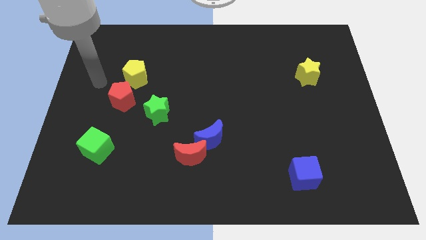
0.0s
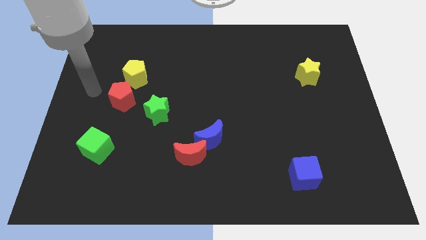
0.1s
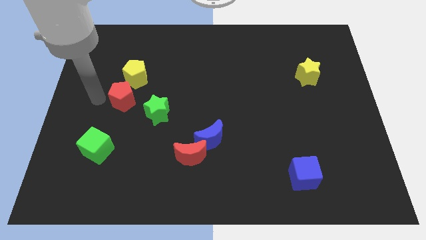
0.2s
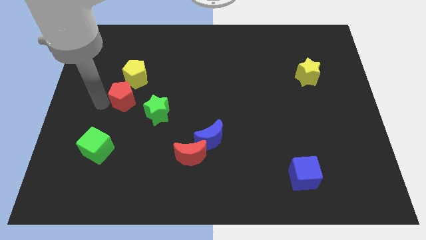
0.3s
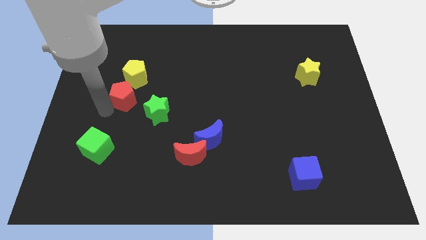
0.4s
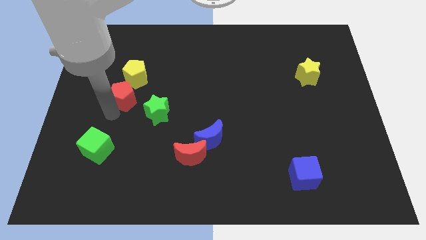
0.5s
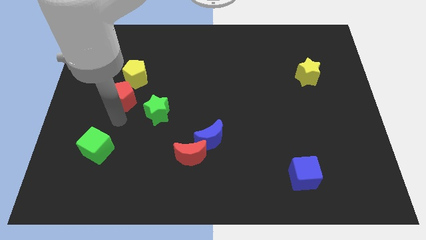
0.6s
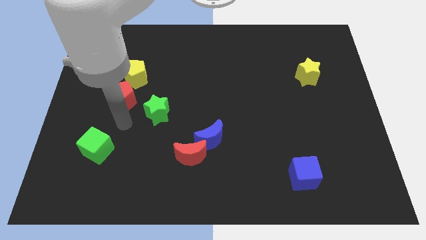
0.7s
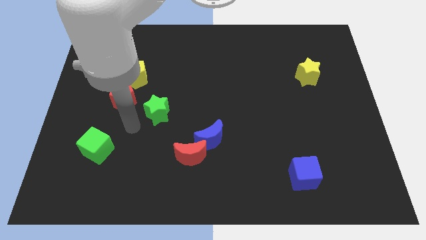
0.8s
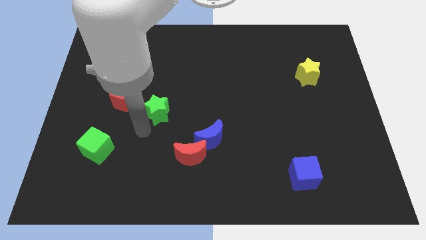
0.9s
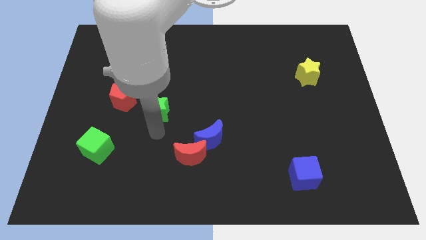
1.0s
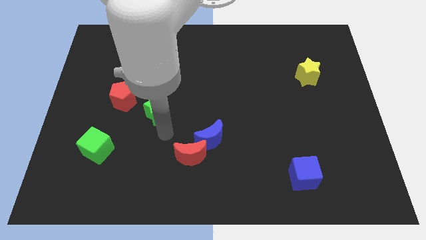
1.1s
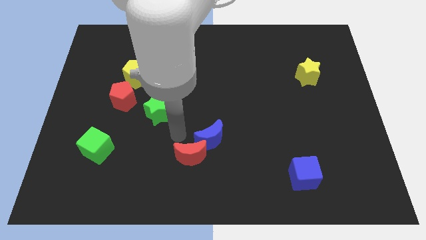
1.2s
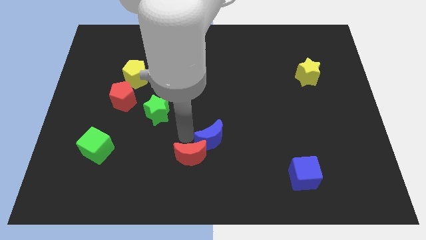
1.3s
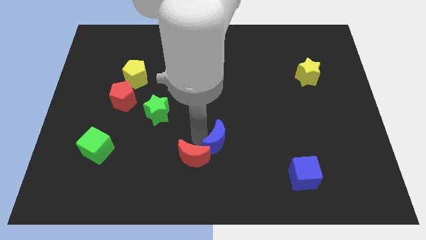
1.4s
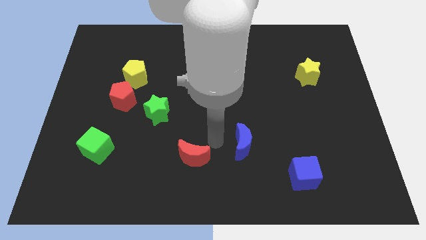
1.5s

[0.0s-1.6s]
move the red moon away from the blue moon

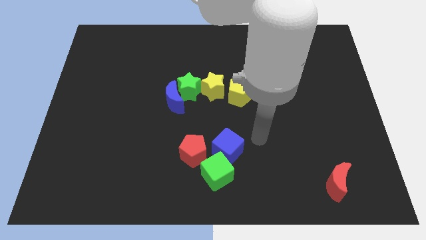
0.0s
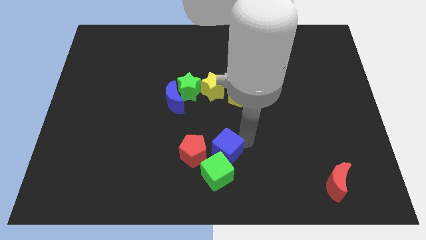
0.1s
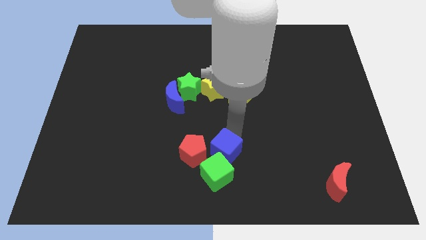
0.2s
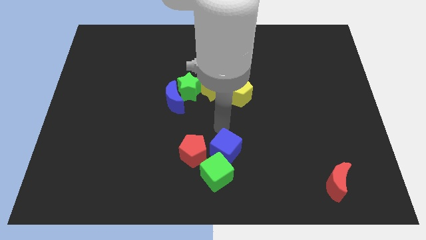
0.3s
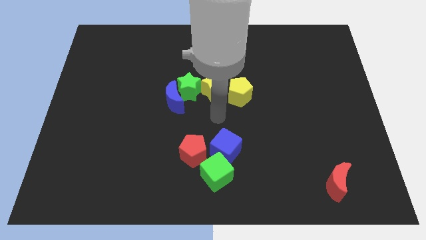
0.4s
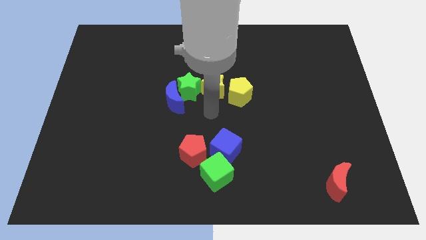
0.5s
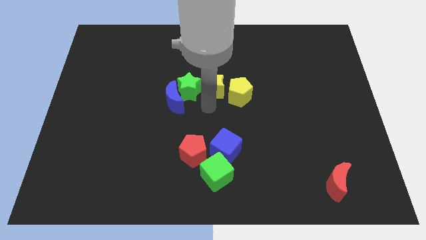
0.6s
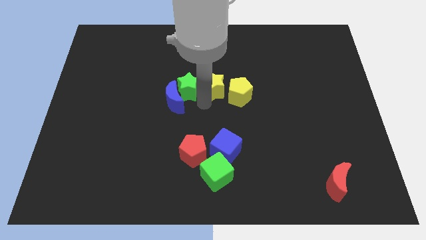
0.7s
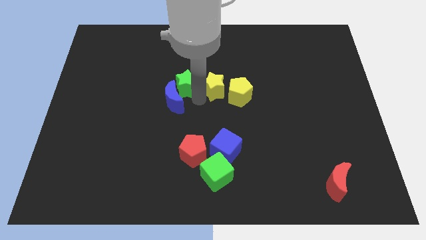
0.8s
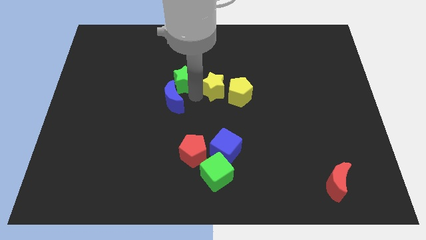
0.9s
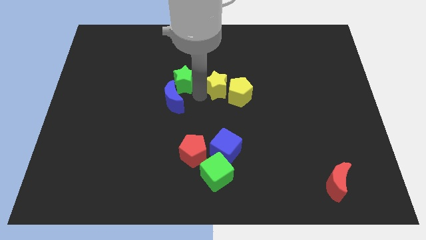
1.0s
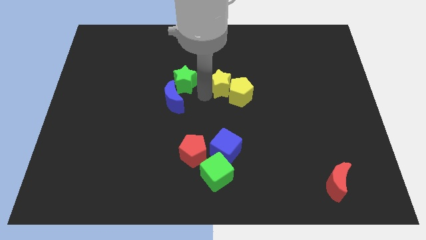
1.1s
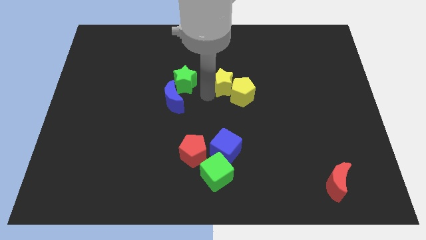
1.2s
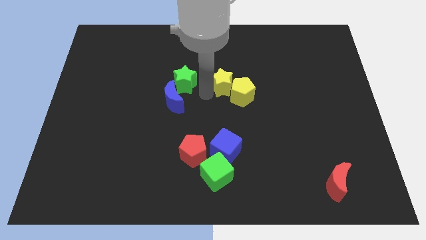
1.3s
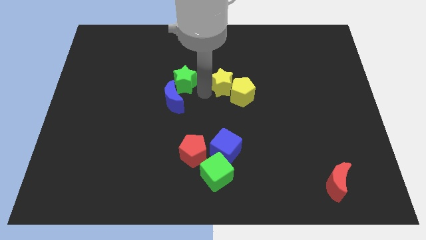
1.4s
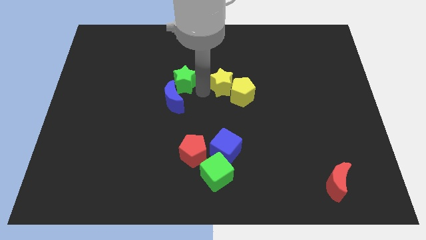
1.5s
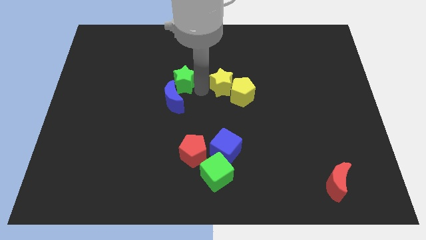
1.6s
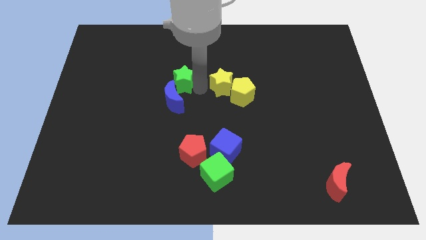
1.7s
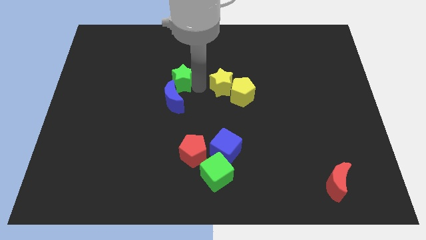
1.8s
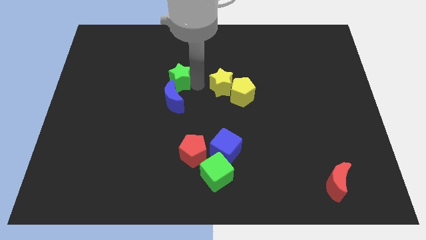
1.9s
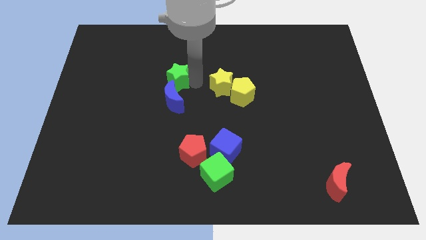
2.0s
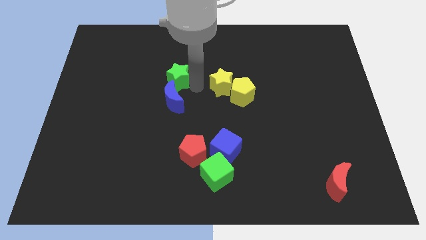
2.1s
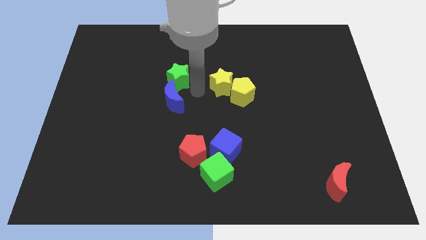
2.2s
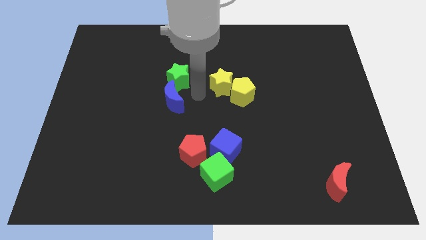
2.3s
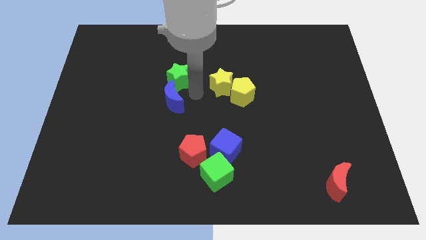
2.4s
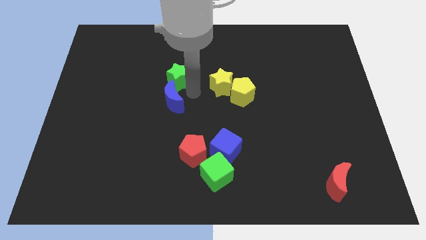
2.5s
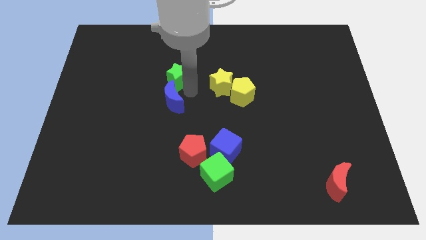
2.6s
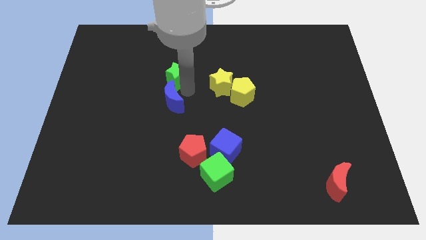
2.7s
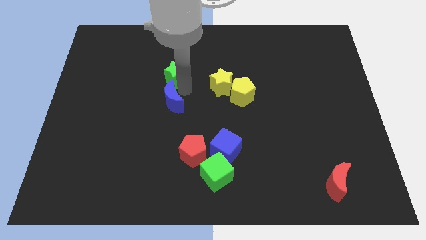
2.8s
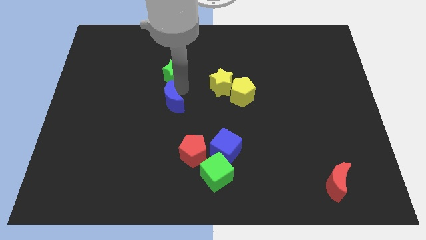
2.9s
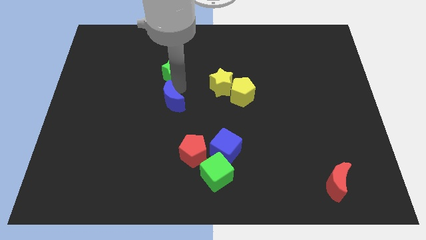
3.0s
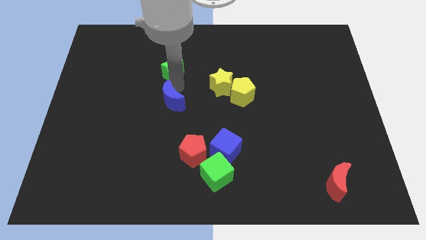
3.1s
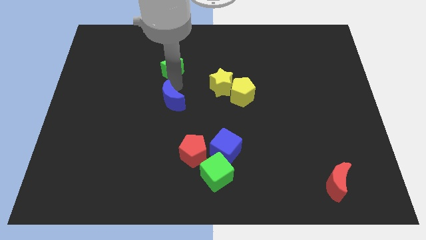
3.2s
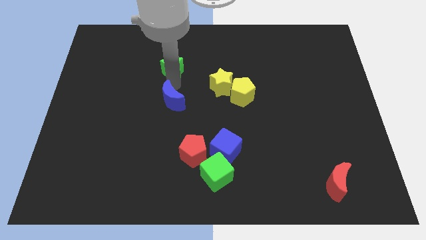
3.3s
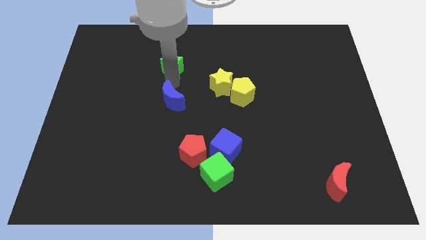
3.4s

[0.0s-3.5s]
pull the green star apart from the blue moon and yellow star

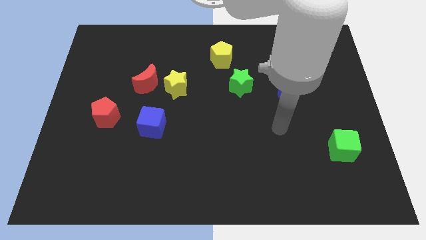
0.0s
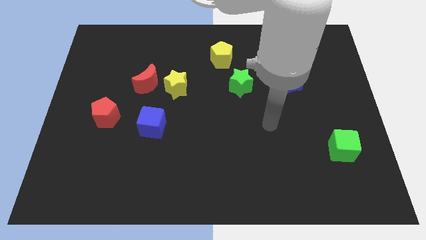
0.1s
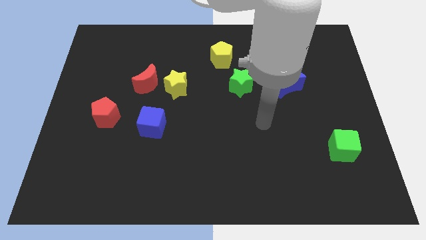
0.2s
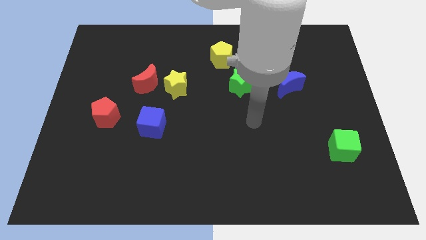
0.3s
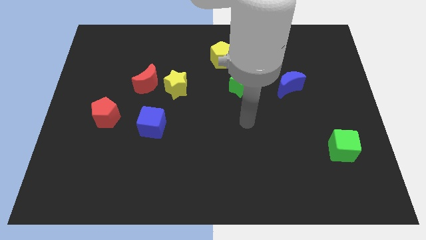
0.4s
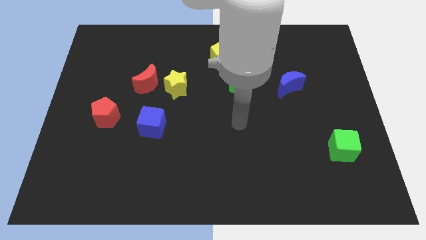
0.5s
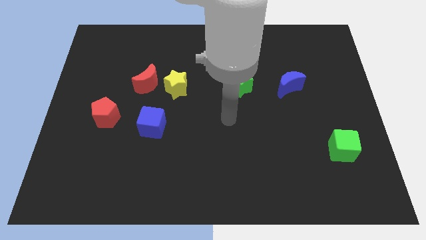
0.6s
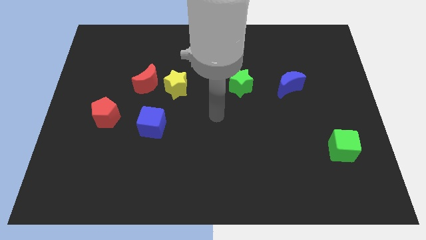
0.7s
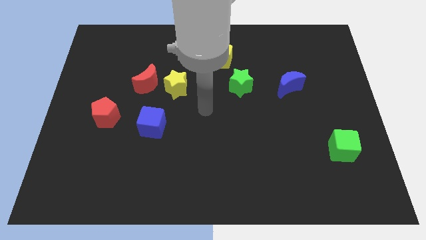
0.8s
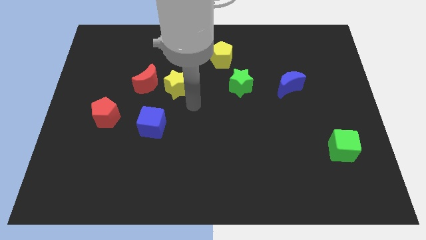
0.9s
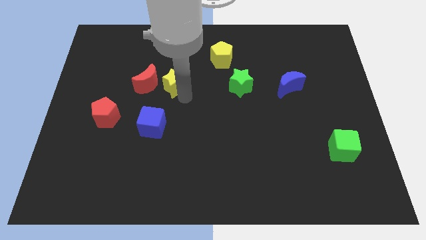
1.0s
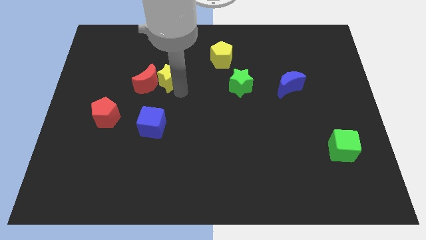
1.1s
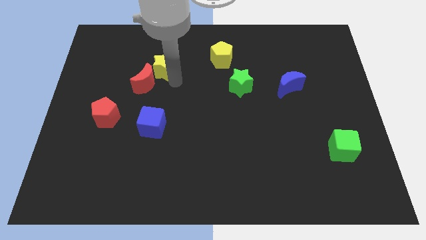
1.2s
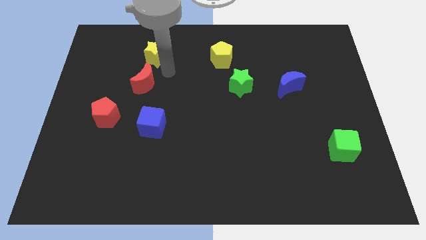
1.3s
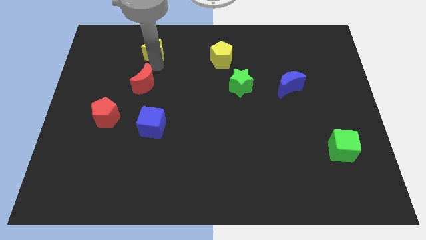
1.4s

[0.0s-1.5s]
pull the red moon apart from the yellow star

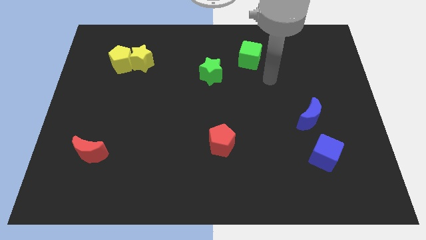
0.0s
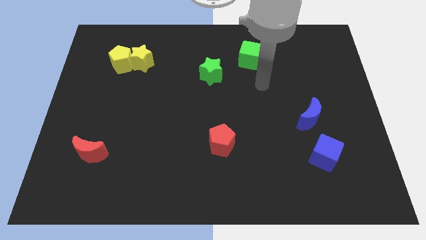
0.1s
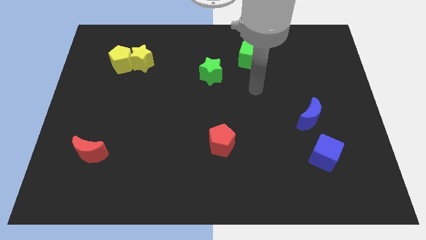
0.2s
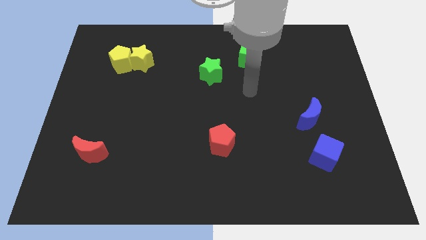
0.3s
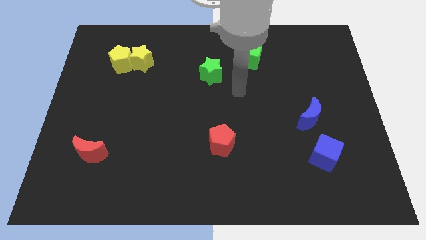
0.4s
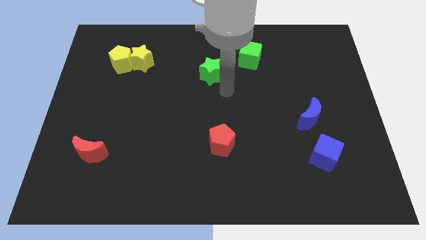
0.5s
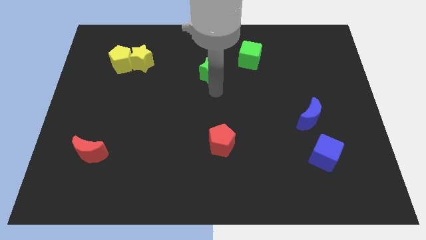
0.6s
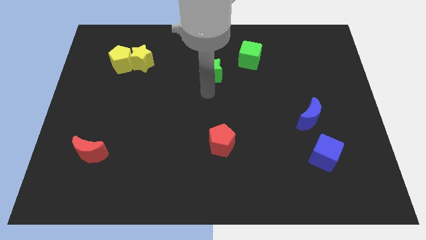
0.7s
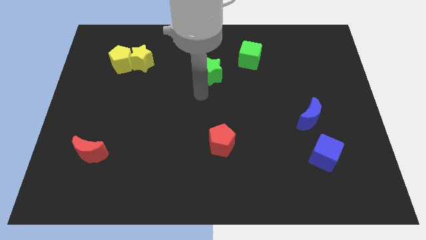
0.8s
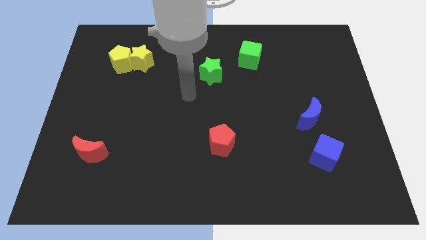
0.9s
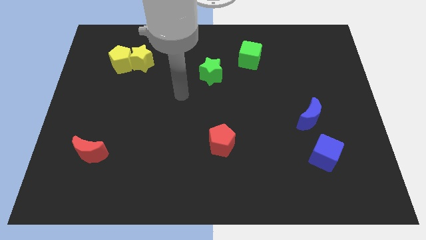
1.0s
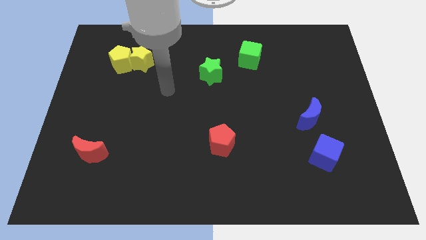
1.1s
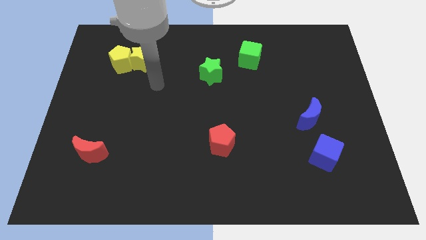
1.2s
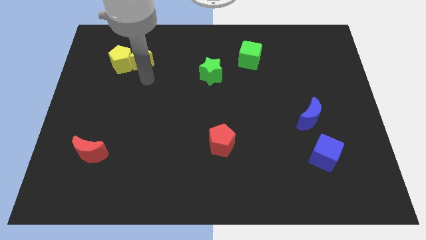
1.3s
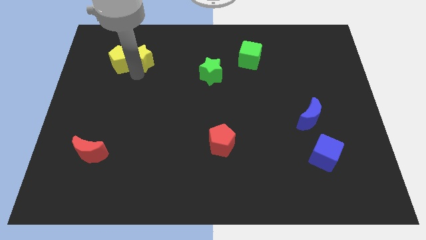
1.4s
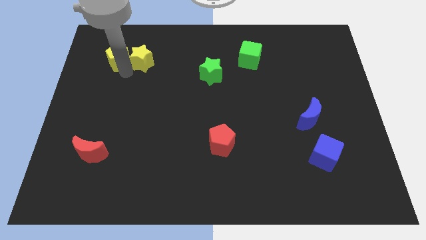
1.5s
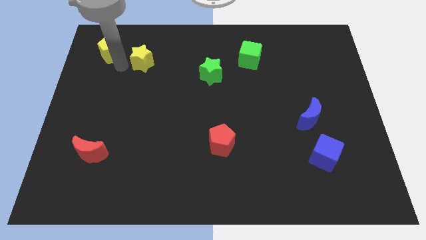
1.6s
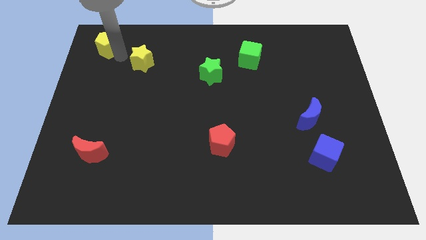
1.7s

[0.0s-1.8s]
pull the yellow star apart from the yellow pentagon

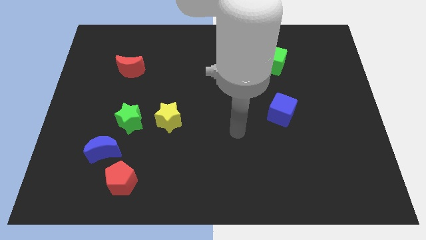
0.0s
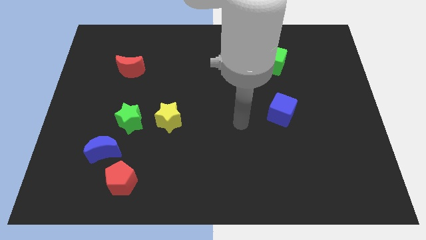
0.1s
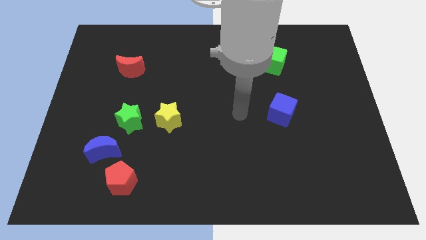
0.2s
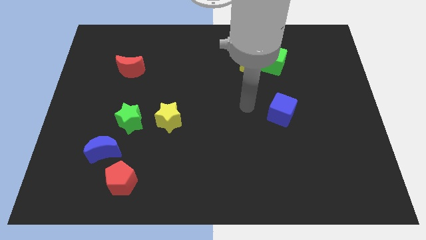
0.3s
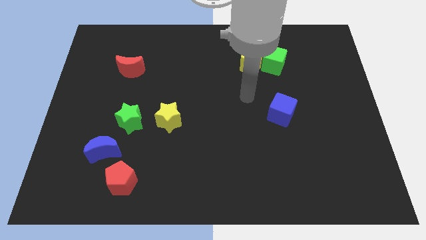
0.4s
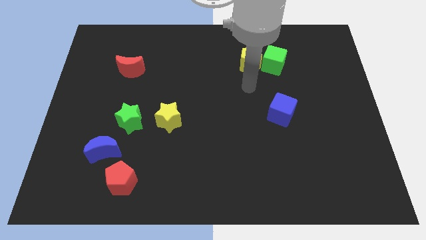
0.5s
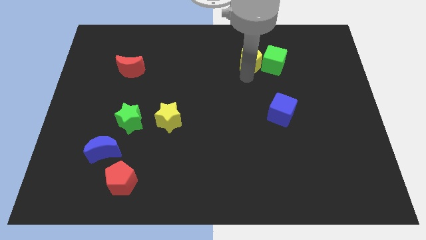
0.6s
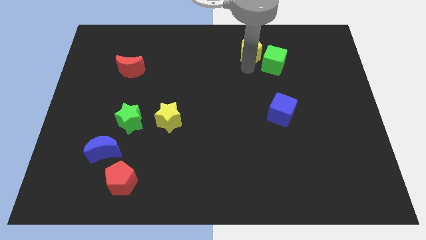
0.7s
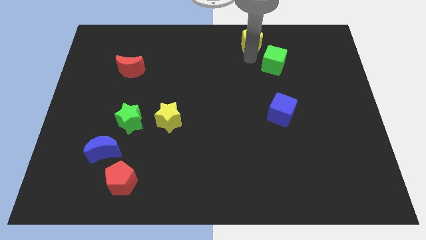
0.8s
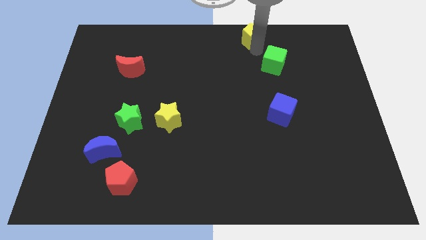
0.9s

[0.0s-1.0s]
pull the green cube apart from the yellow pentagon
